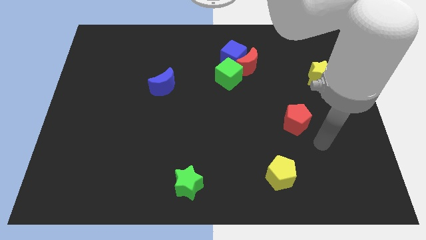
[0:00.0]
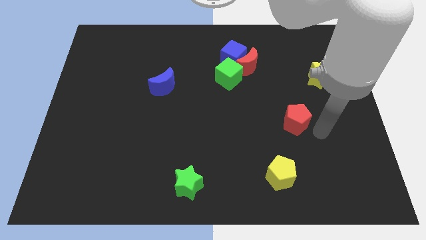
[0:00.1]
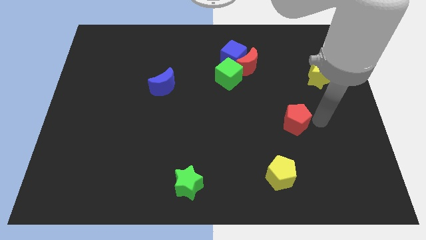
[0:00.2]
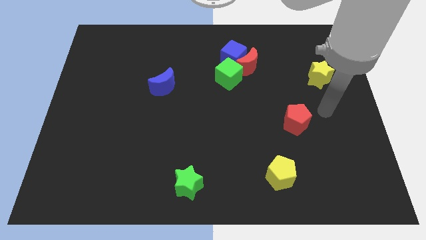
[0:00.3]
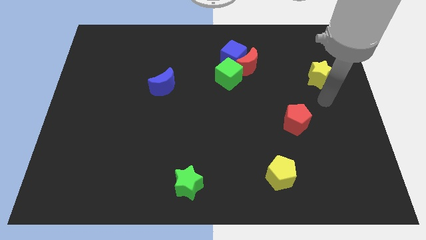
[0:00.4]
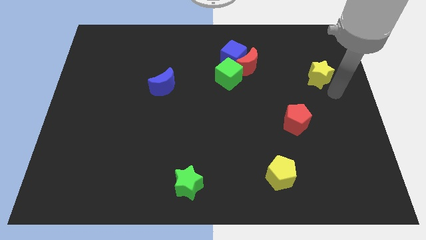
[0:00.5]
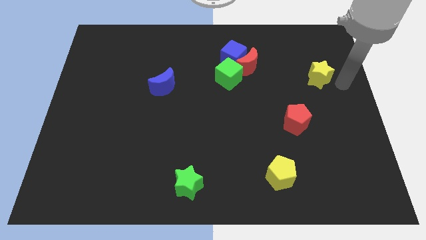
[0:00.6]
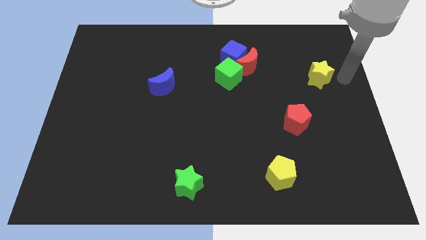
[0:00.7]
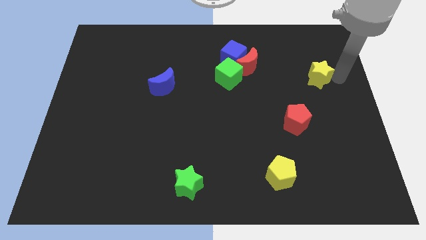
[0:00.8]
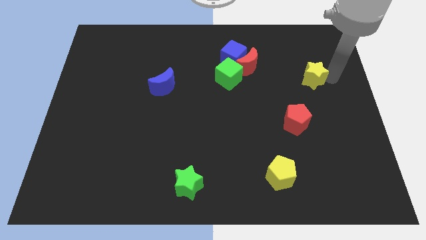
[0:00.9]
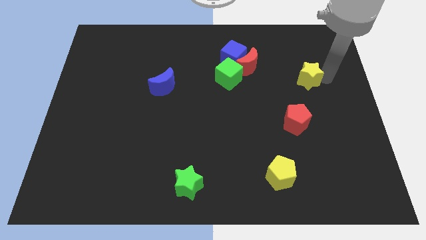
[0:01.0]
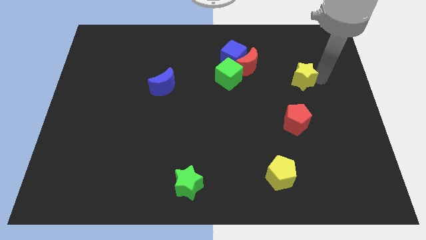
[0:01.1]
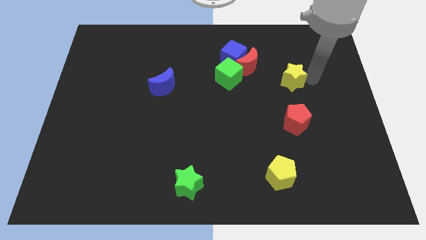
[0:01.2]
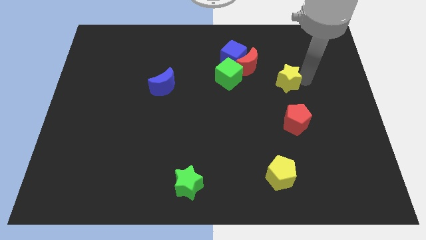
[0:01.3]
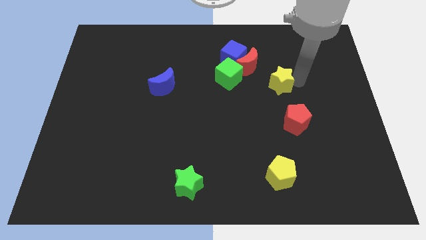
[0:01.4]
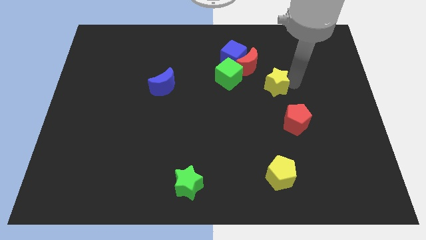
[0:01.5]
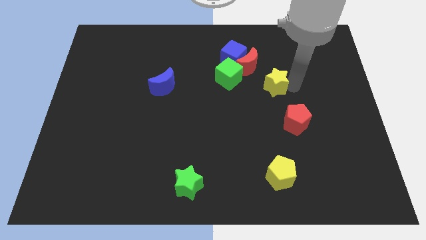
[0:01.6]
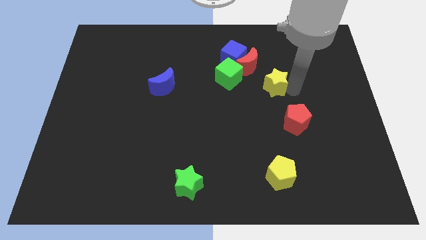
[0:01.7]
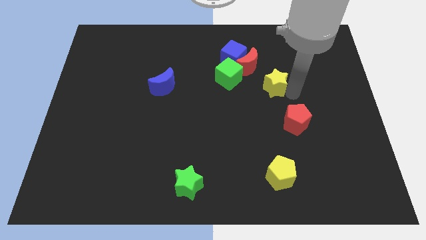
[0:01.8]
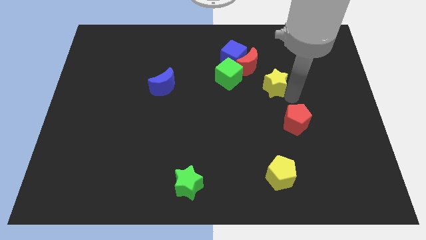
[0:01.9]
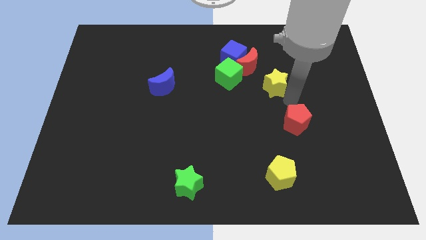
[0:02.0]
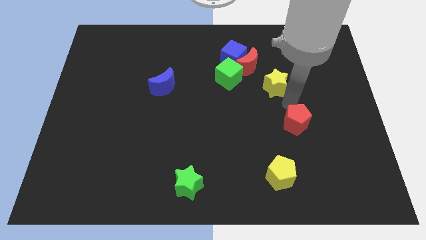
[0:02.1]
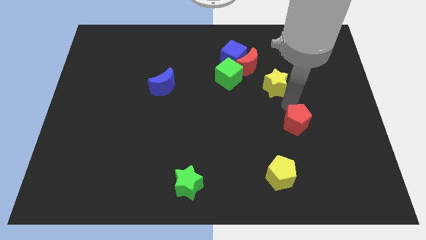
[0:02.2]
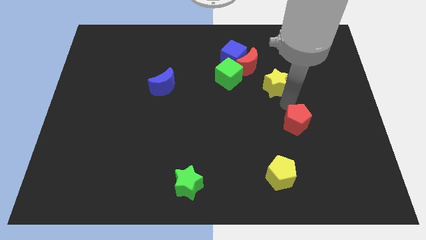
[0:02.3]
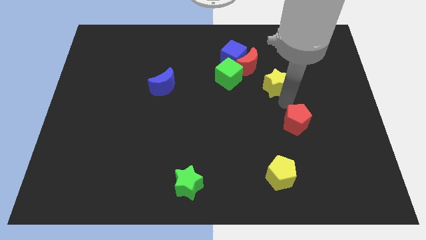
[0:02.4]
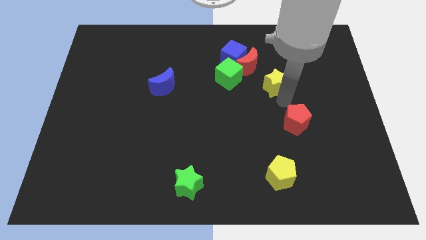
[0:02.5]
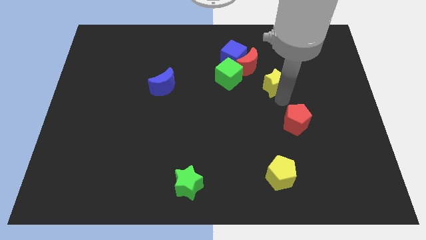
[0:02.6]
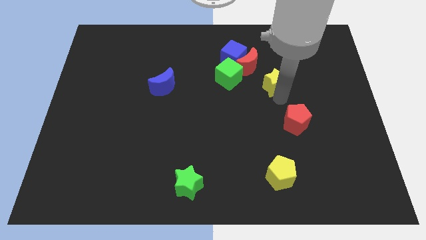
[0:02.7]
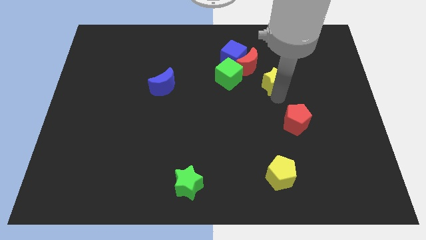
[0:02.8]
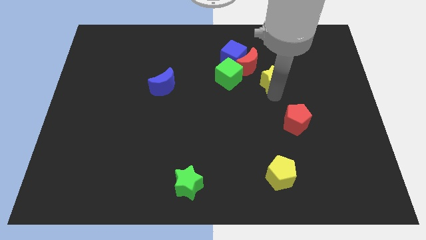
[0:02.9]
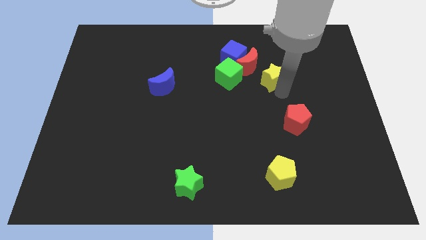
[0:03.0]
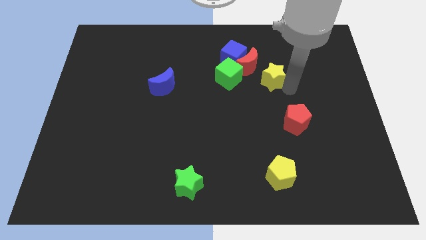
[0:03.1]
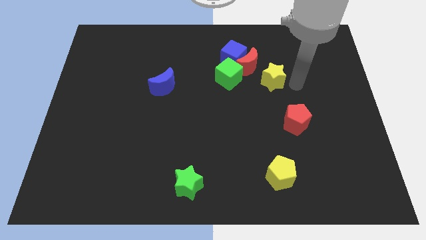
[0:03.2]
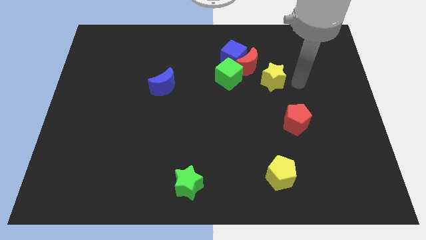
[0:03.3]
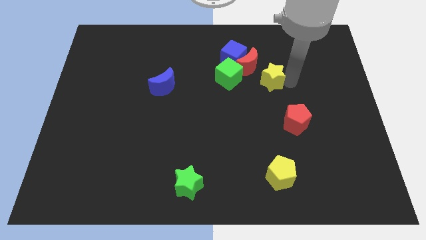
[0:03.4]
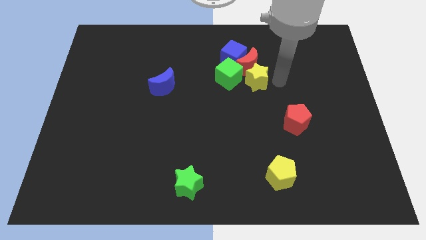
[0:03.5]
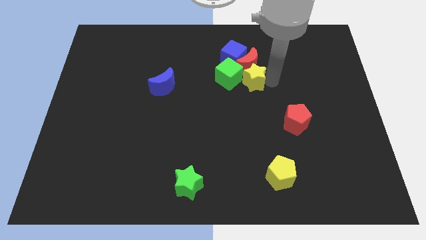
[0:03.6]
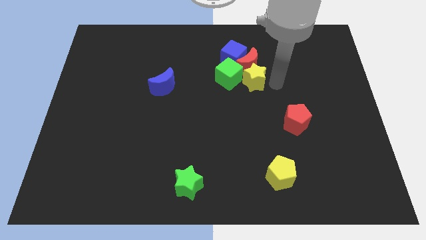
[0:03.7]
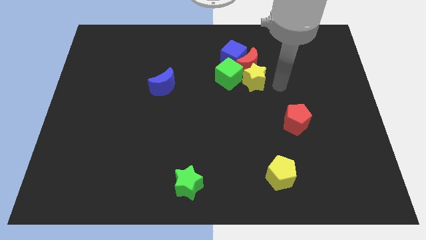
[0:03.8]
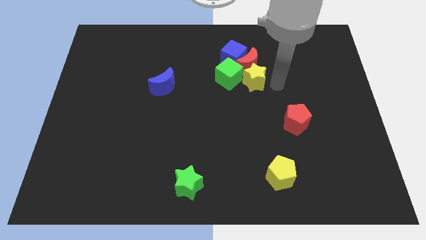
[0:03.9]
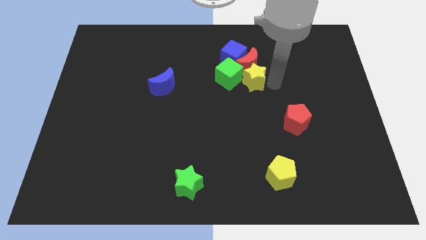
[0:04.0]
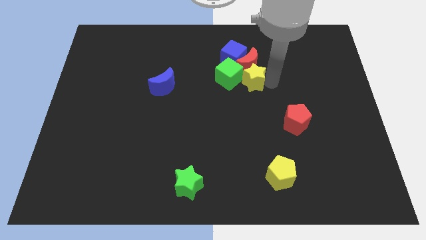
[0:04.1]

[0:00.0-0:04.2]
move the yellow star next to the green cube

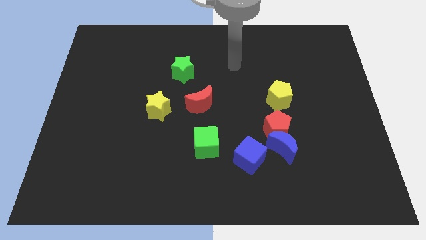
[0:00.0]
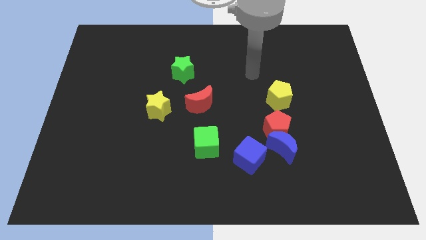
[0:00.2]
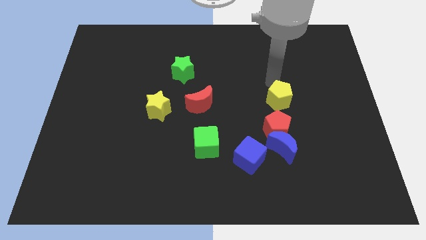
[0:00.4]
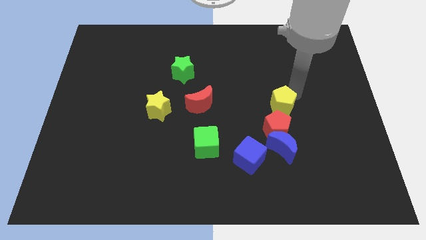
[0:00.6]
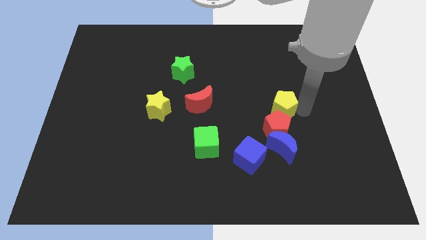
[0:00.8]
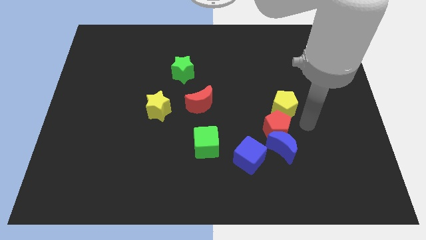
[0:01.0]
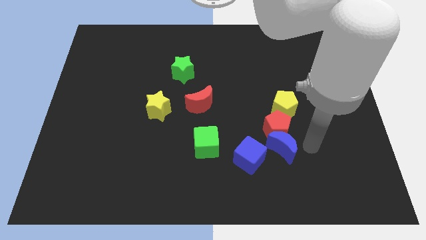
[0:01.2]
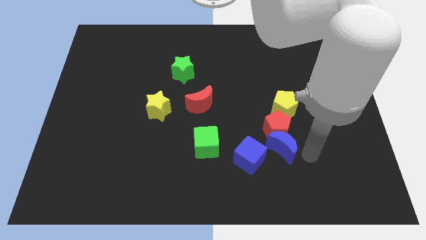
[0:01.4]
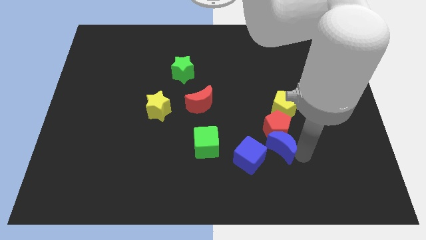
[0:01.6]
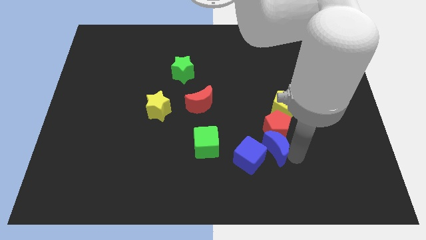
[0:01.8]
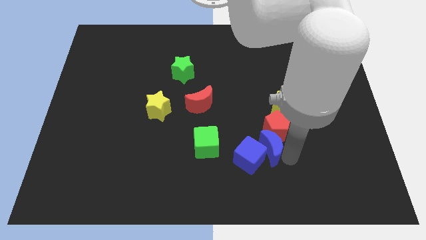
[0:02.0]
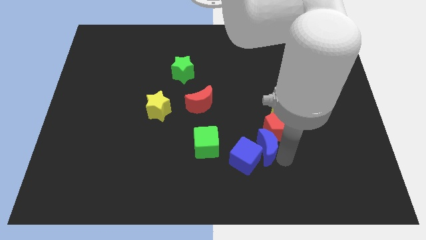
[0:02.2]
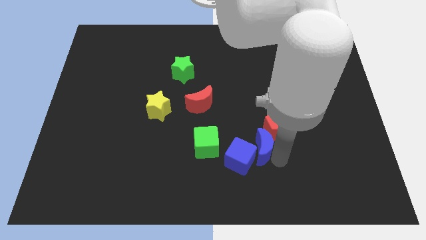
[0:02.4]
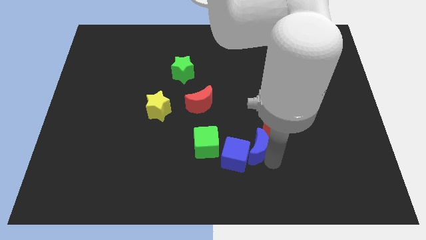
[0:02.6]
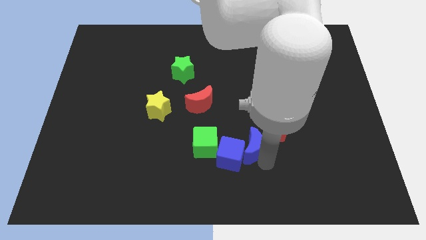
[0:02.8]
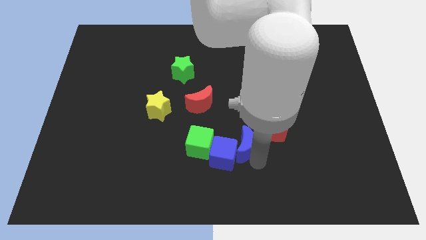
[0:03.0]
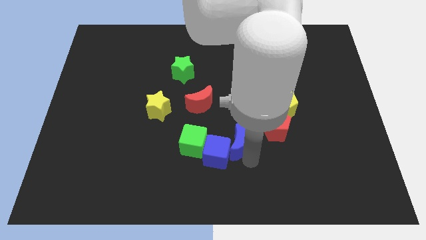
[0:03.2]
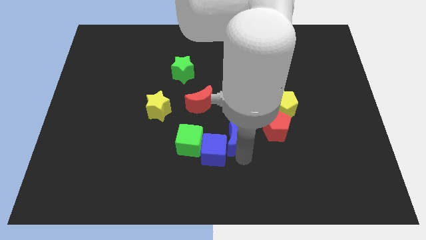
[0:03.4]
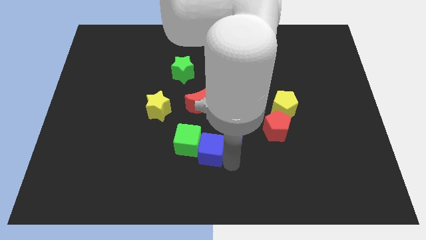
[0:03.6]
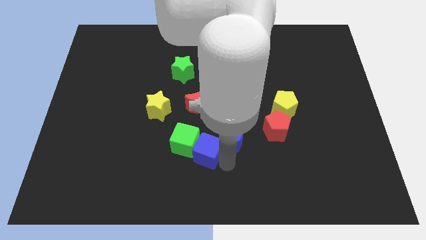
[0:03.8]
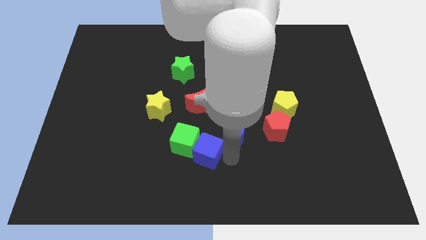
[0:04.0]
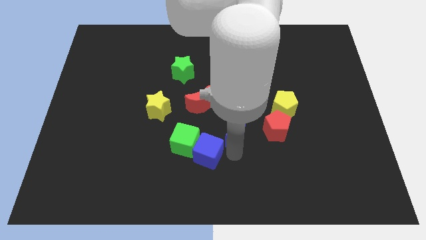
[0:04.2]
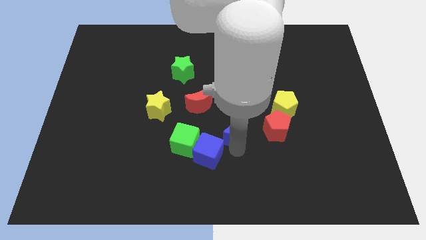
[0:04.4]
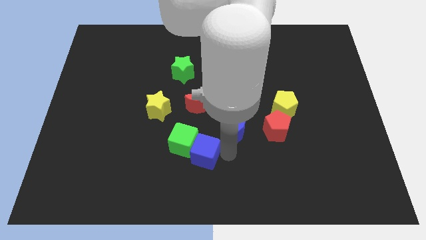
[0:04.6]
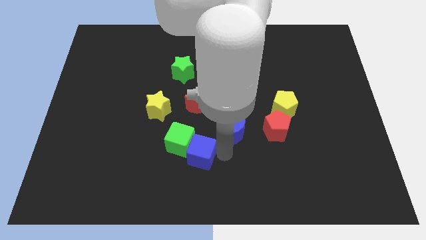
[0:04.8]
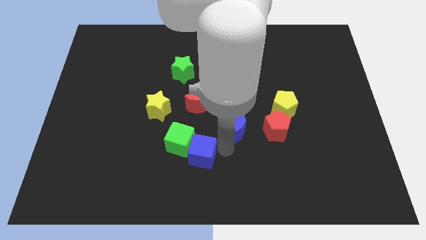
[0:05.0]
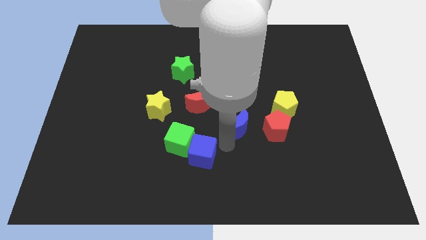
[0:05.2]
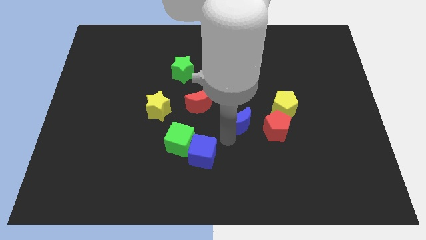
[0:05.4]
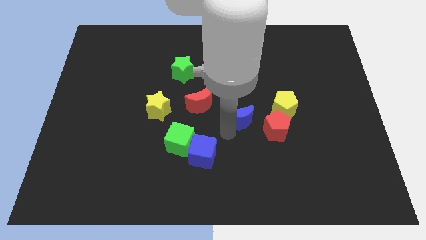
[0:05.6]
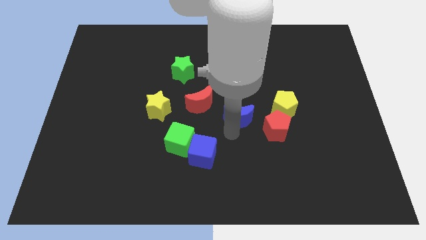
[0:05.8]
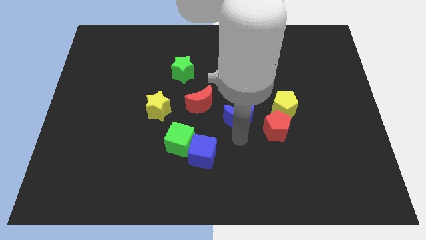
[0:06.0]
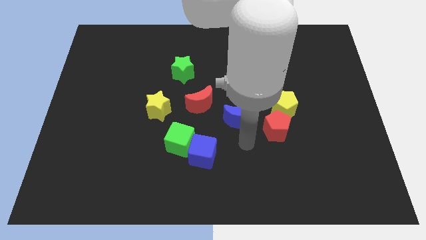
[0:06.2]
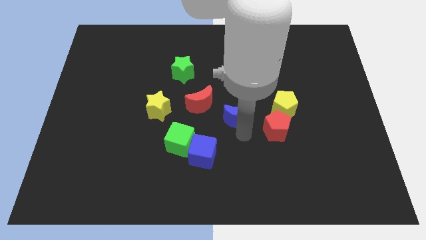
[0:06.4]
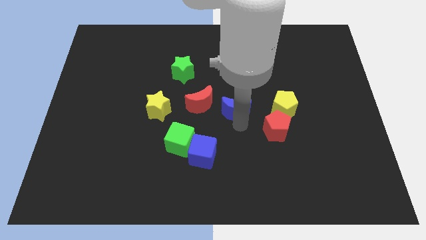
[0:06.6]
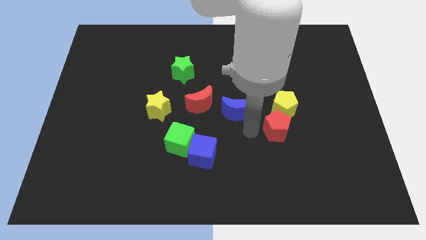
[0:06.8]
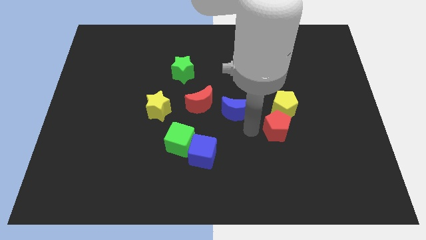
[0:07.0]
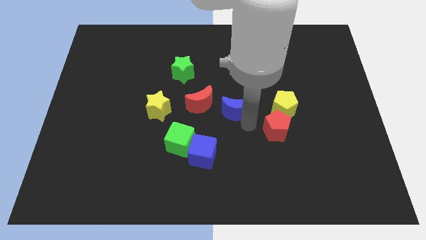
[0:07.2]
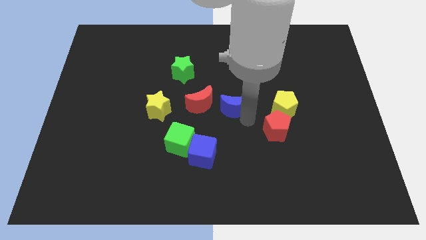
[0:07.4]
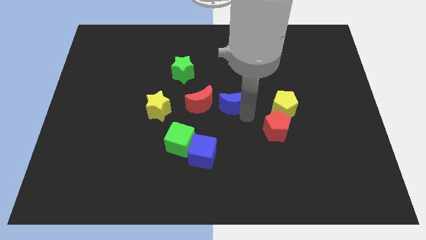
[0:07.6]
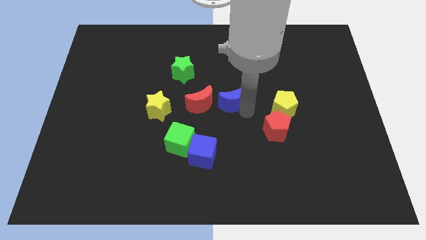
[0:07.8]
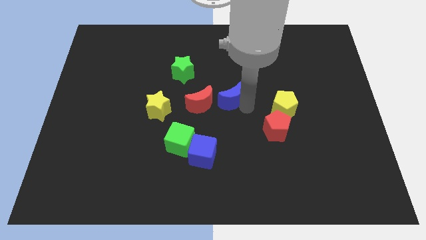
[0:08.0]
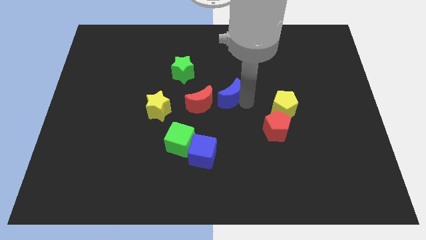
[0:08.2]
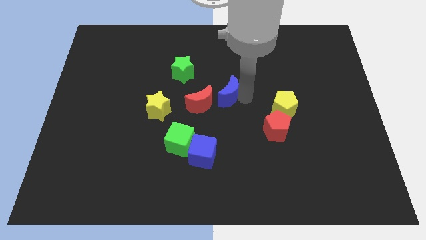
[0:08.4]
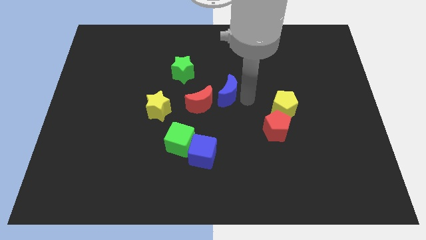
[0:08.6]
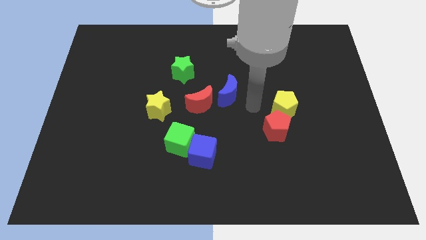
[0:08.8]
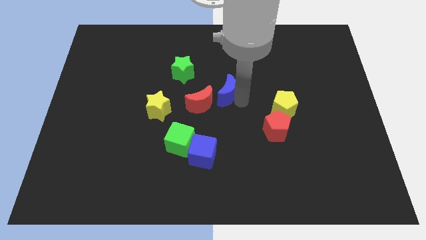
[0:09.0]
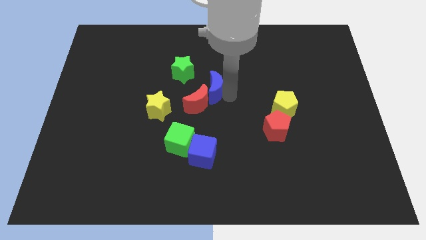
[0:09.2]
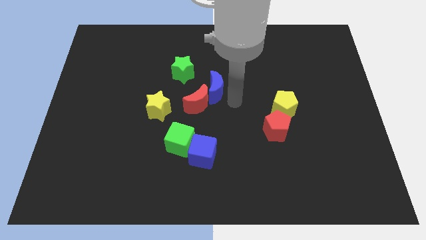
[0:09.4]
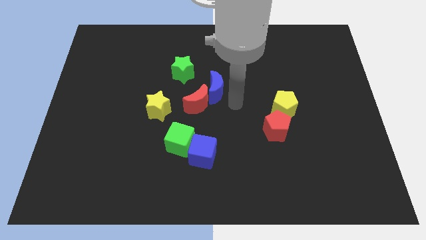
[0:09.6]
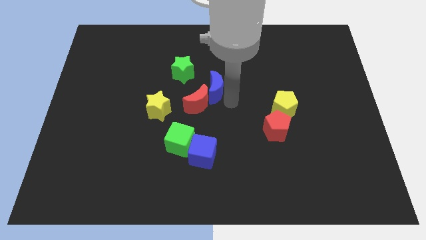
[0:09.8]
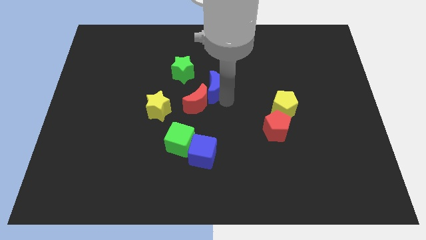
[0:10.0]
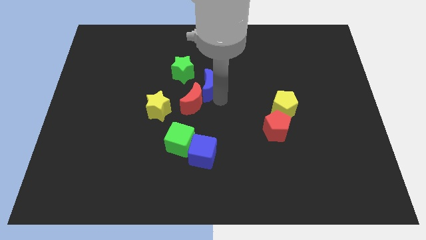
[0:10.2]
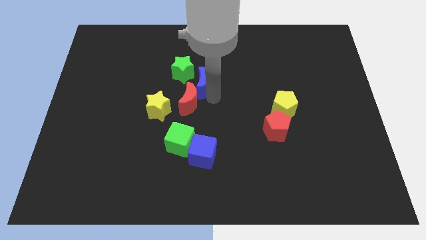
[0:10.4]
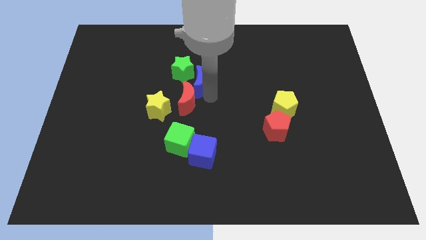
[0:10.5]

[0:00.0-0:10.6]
push the blue moon to the green star
